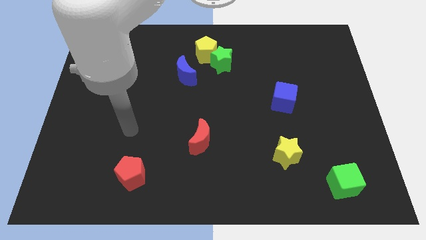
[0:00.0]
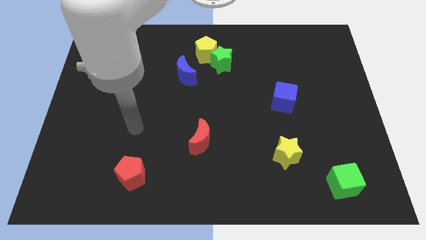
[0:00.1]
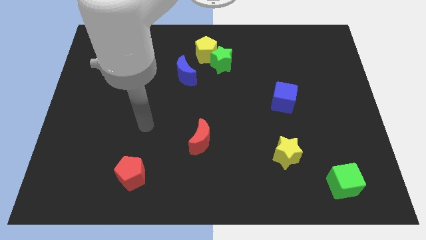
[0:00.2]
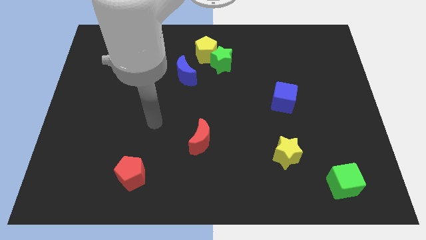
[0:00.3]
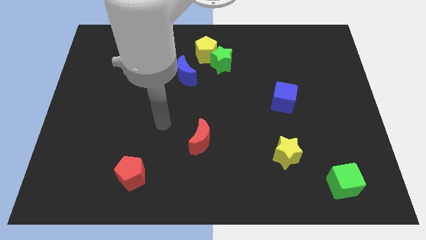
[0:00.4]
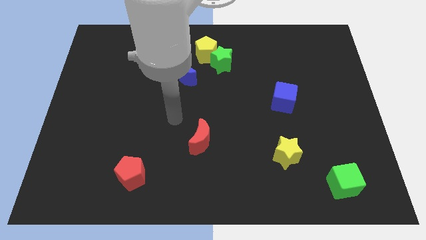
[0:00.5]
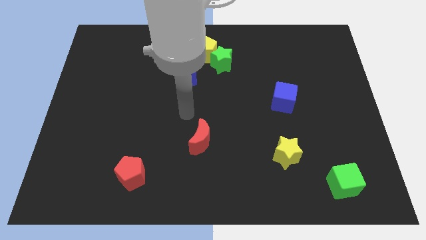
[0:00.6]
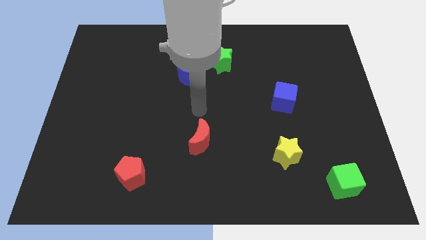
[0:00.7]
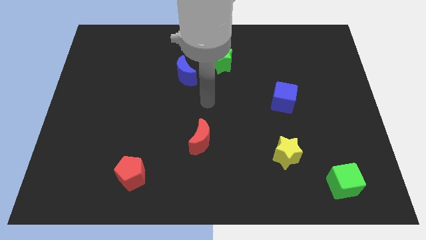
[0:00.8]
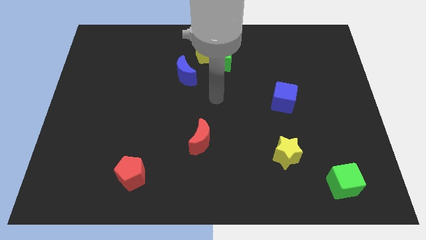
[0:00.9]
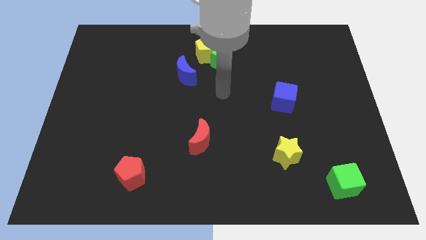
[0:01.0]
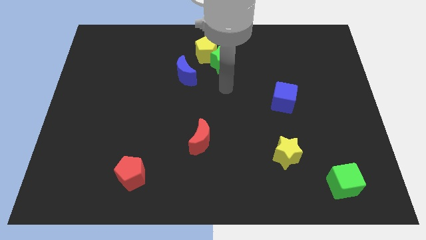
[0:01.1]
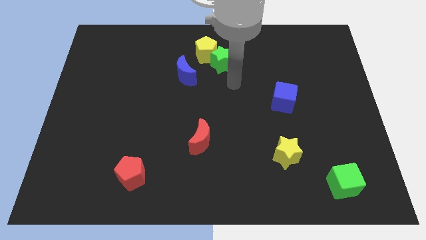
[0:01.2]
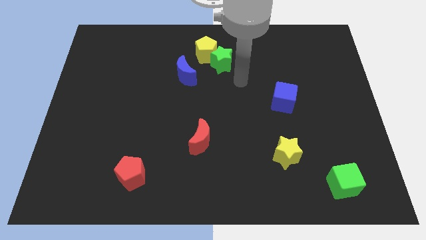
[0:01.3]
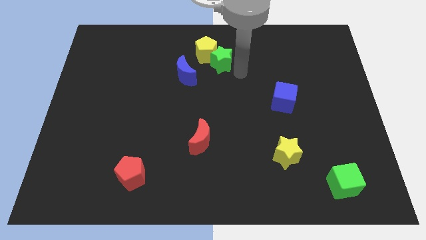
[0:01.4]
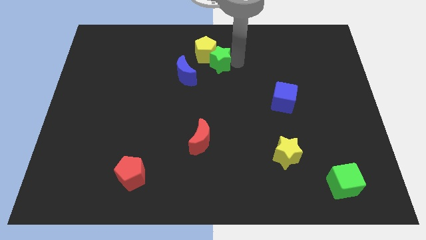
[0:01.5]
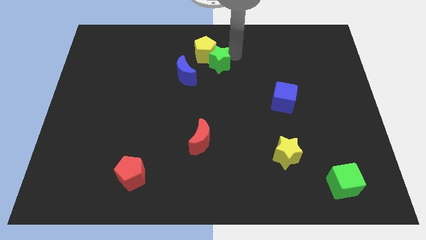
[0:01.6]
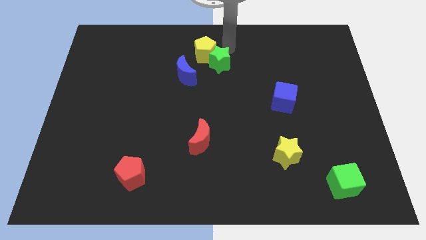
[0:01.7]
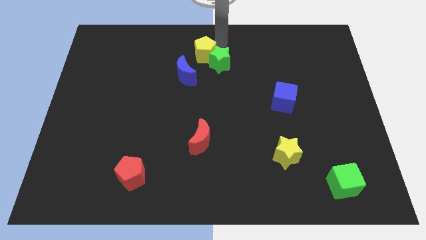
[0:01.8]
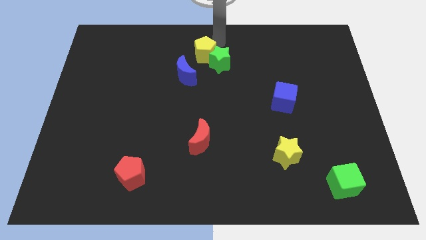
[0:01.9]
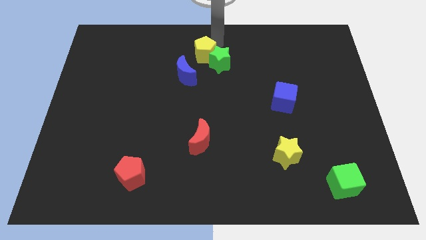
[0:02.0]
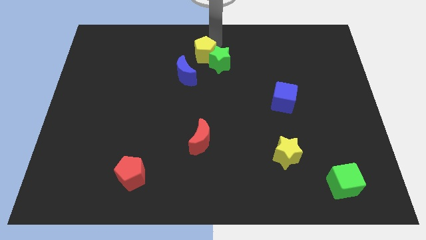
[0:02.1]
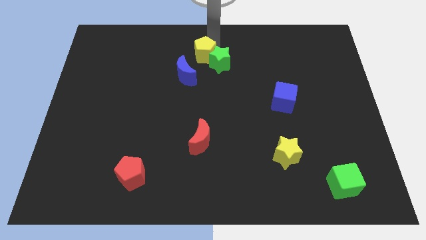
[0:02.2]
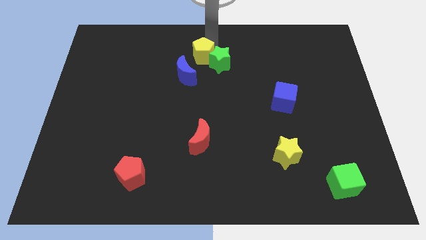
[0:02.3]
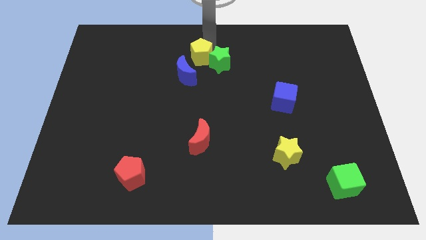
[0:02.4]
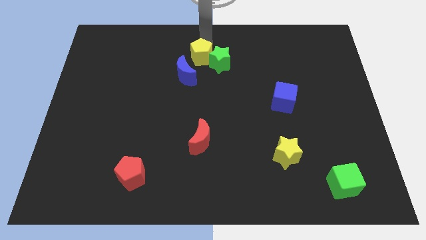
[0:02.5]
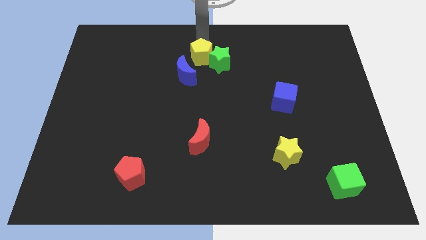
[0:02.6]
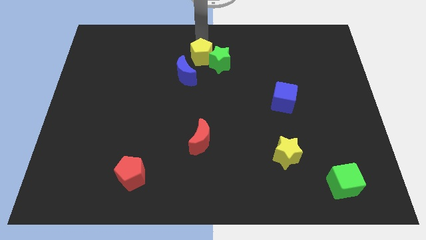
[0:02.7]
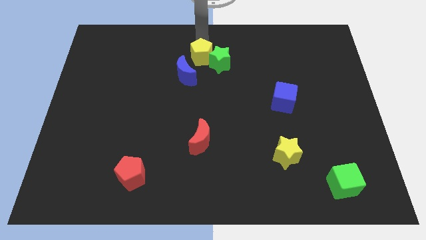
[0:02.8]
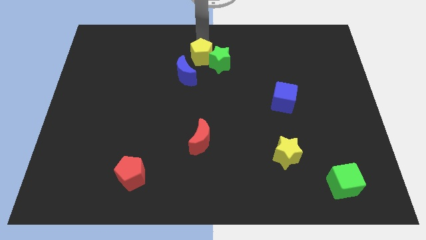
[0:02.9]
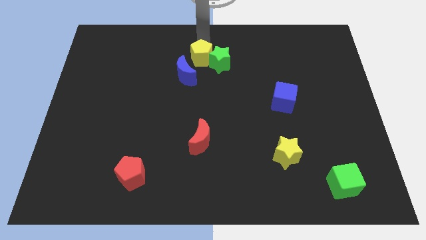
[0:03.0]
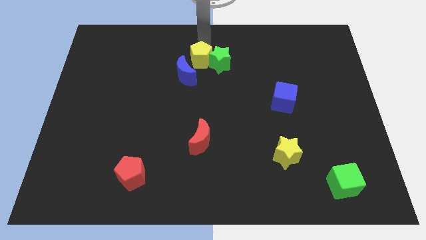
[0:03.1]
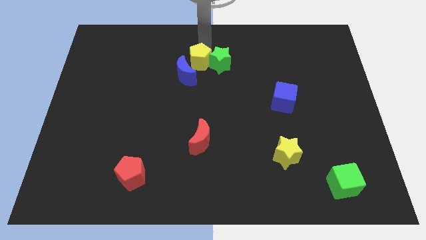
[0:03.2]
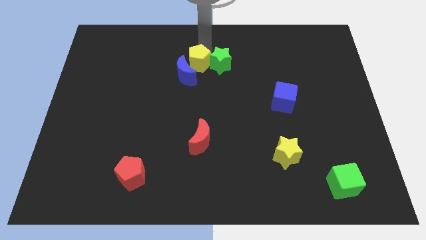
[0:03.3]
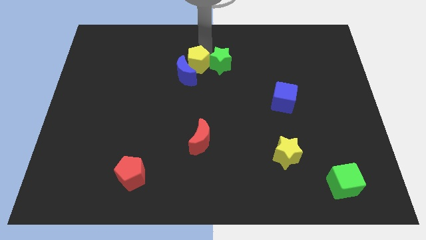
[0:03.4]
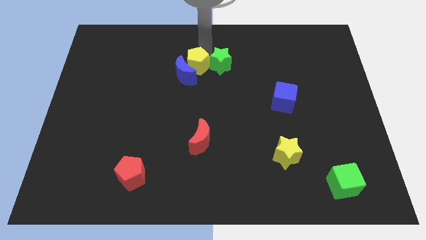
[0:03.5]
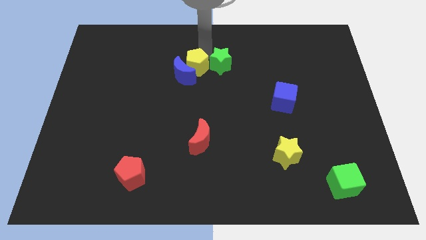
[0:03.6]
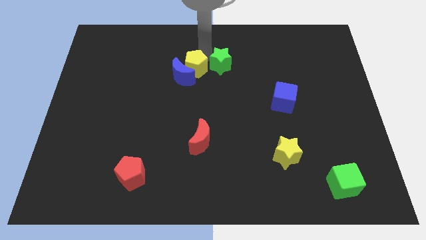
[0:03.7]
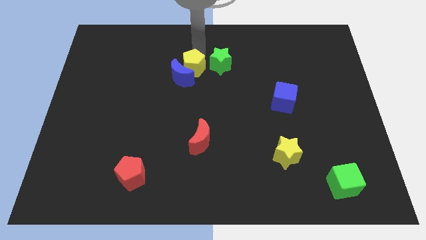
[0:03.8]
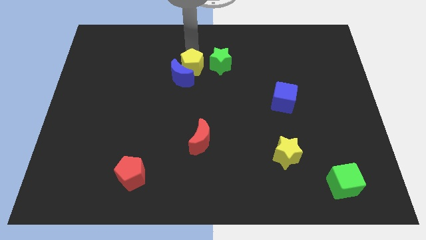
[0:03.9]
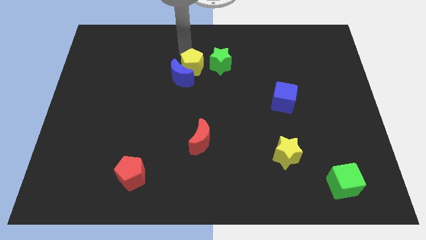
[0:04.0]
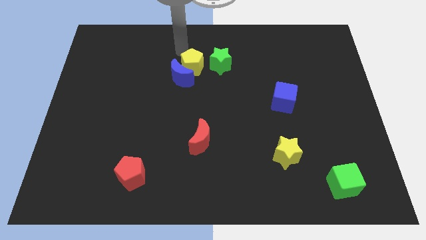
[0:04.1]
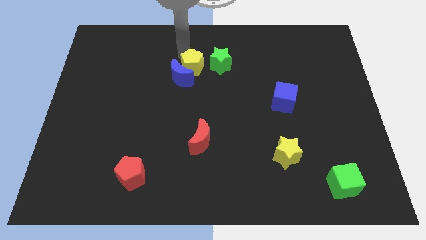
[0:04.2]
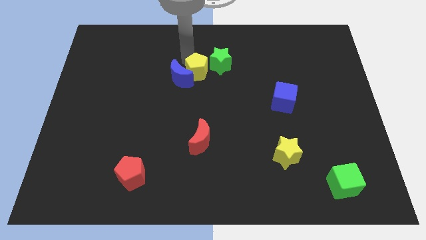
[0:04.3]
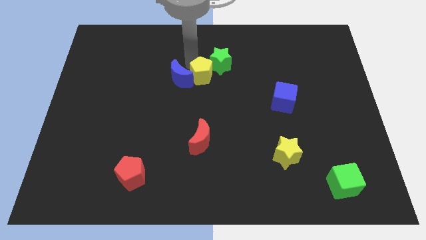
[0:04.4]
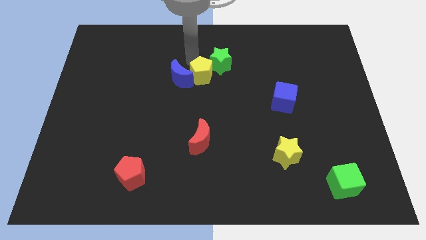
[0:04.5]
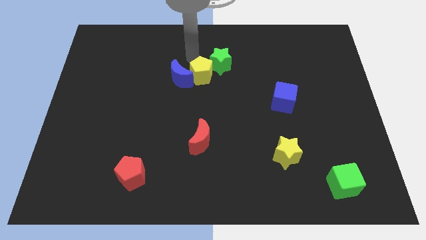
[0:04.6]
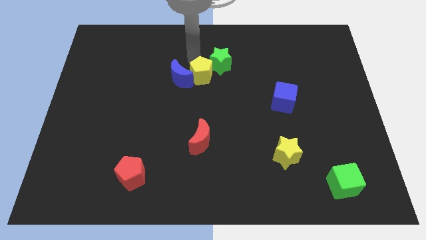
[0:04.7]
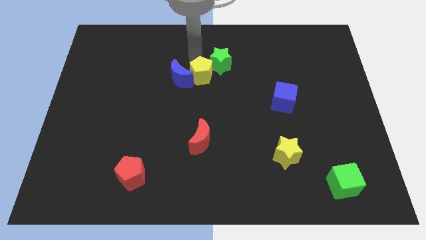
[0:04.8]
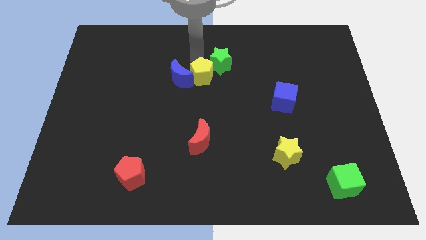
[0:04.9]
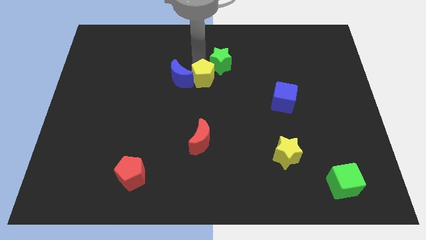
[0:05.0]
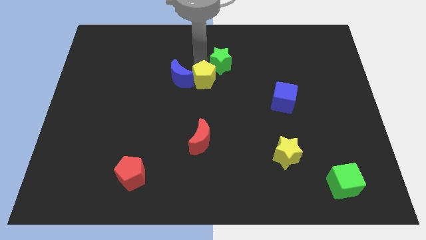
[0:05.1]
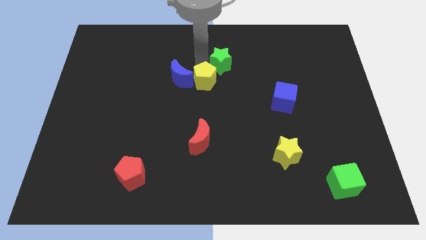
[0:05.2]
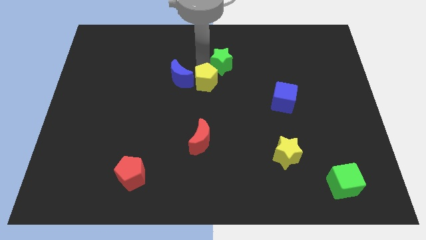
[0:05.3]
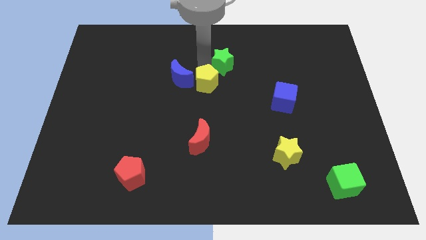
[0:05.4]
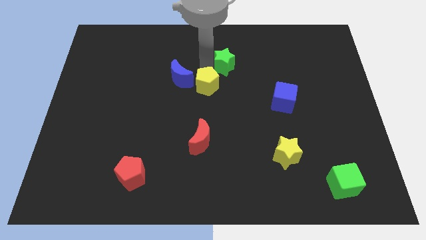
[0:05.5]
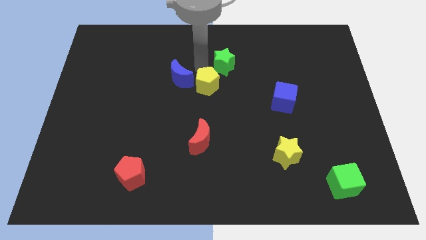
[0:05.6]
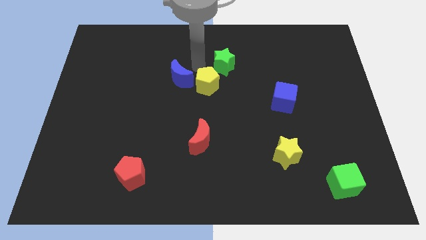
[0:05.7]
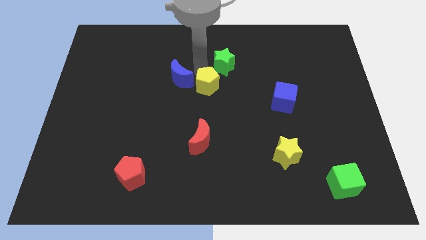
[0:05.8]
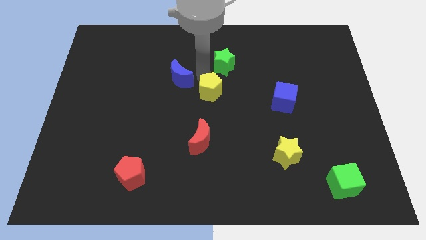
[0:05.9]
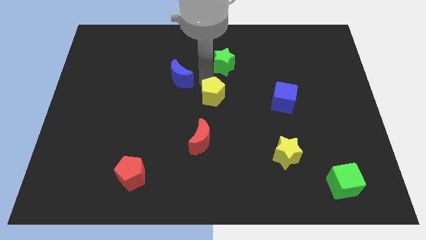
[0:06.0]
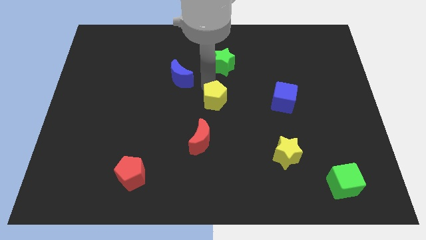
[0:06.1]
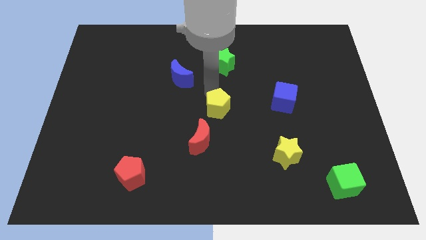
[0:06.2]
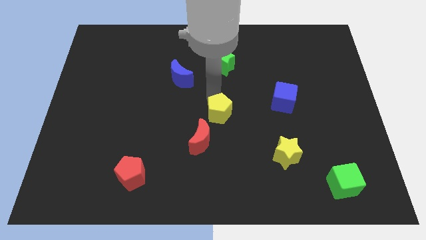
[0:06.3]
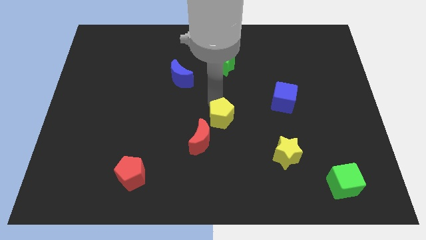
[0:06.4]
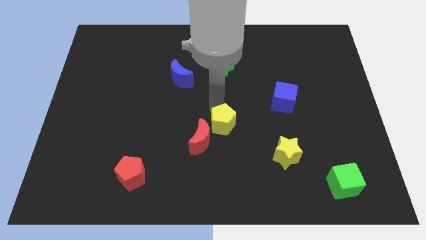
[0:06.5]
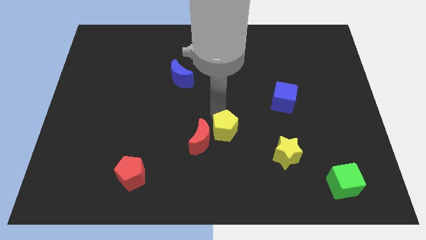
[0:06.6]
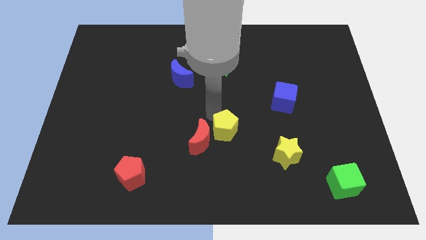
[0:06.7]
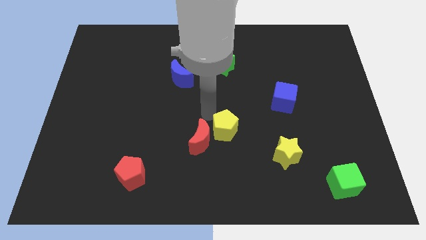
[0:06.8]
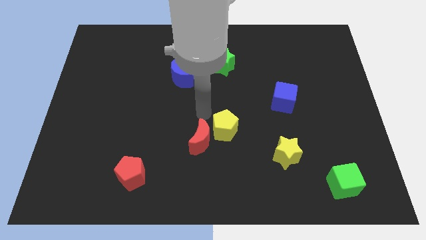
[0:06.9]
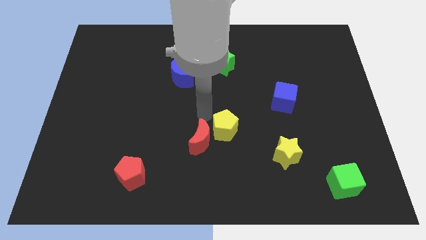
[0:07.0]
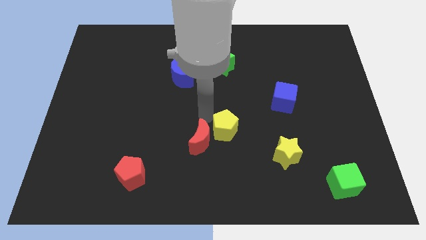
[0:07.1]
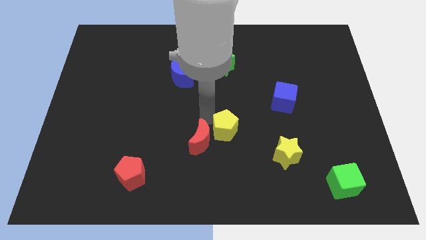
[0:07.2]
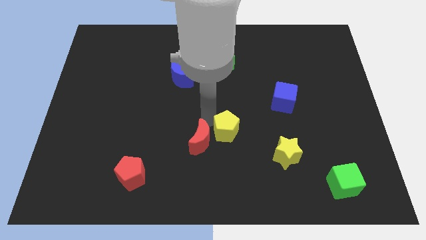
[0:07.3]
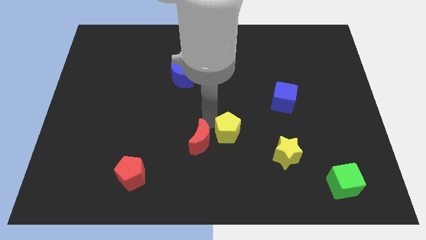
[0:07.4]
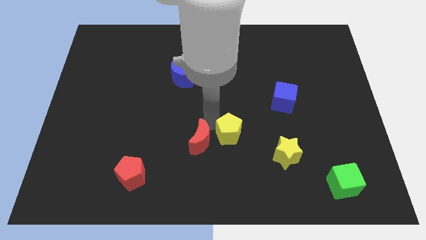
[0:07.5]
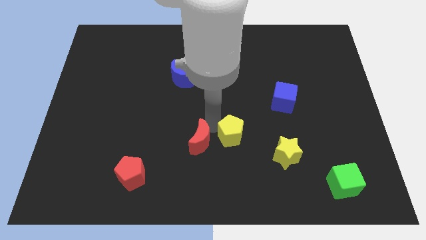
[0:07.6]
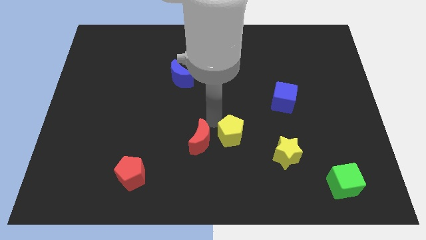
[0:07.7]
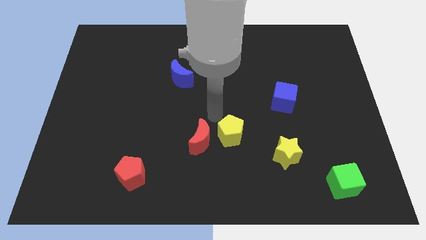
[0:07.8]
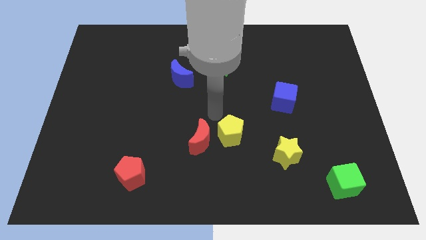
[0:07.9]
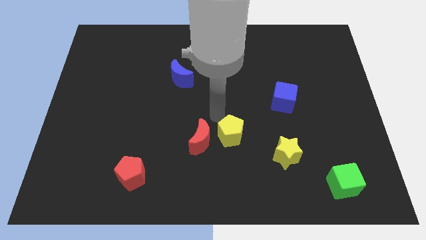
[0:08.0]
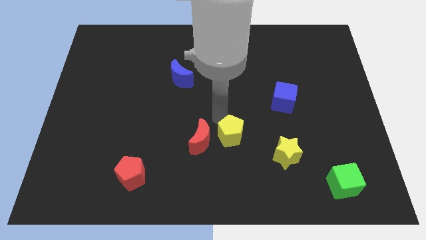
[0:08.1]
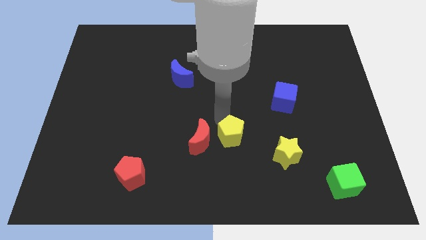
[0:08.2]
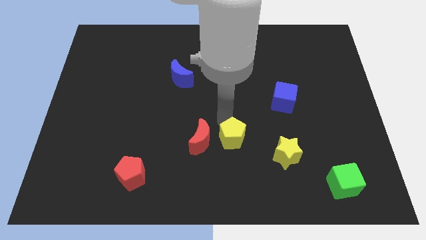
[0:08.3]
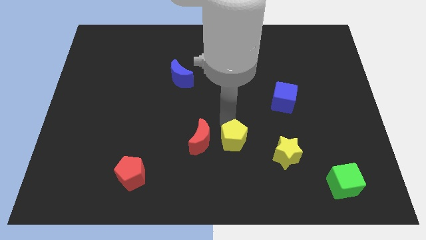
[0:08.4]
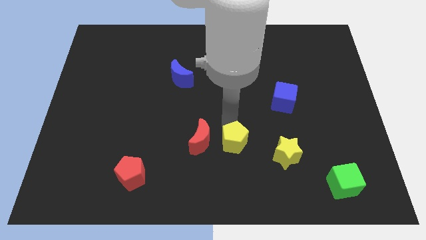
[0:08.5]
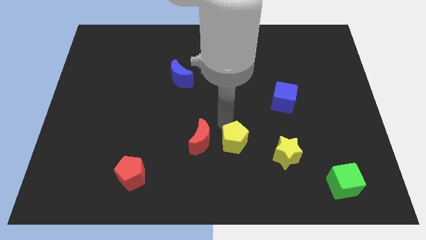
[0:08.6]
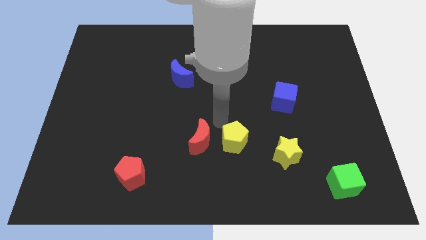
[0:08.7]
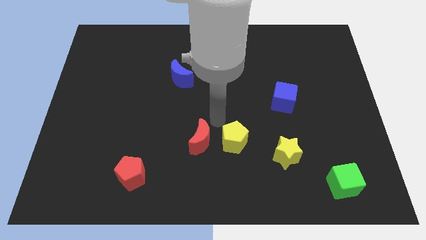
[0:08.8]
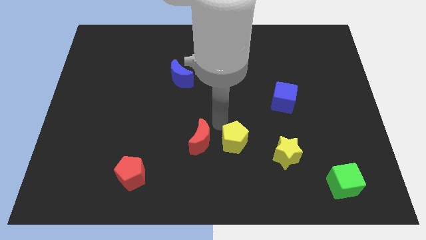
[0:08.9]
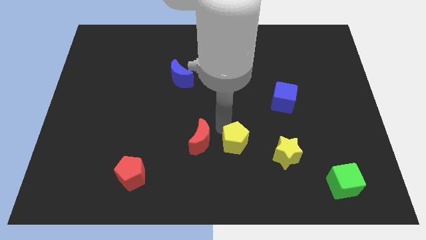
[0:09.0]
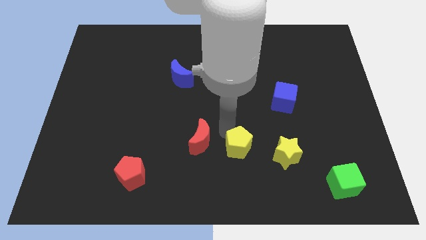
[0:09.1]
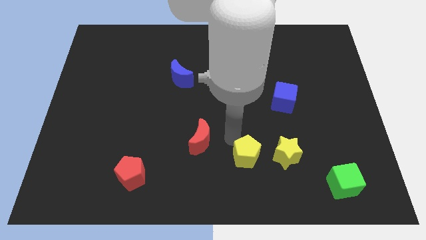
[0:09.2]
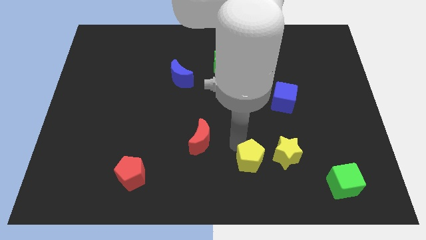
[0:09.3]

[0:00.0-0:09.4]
move the yellow pentagon to the bottom left of the yellow star
